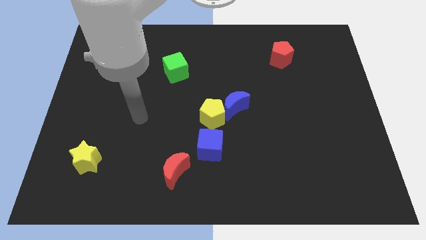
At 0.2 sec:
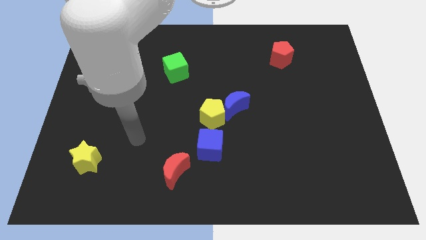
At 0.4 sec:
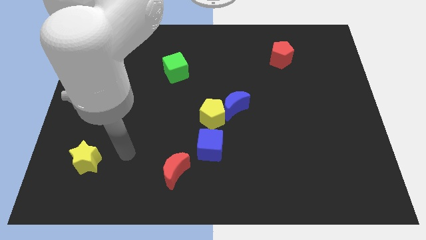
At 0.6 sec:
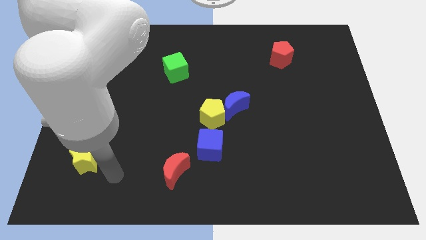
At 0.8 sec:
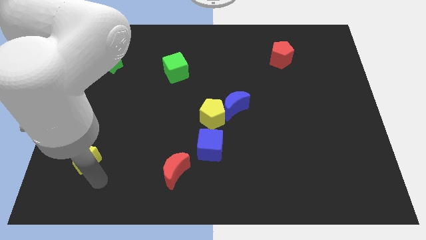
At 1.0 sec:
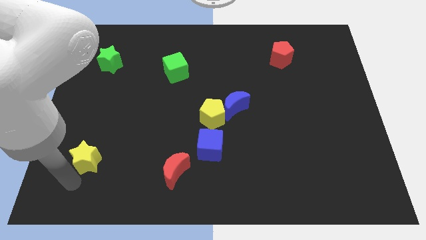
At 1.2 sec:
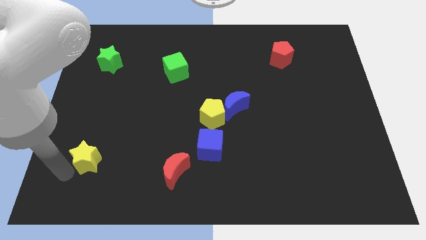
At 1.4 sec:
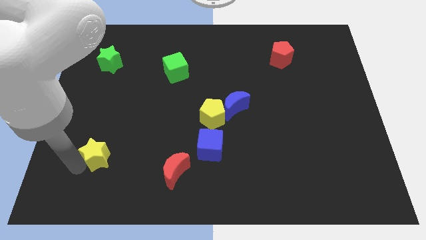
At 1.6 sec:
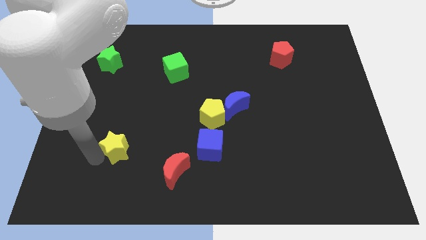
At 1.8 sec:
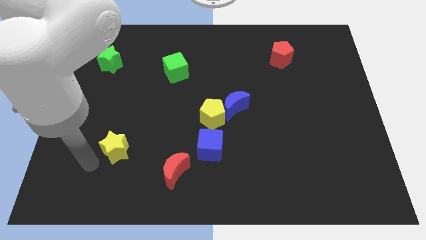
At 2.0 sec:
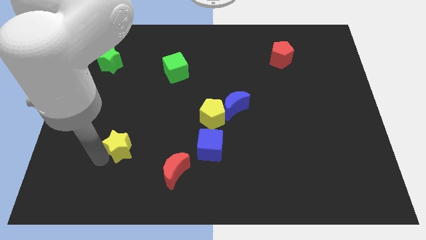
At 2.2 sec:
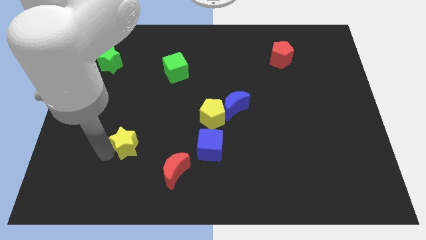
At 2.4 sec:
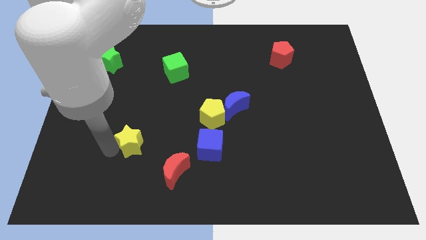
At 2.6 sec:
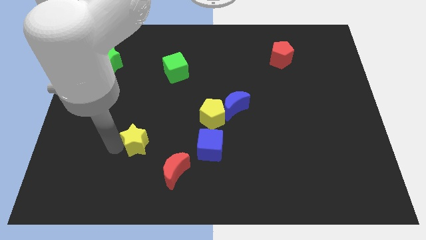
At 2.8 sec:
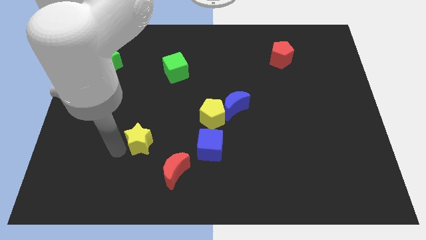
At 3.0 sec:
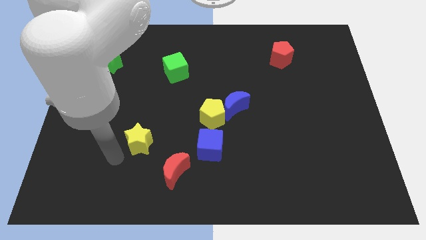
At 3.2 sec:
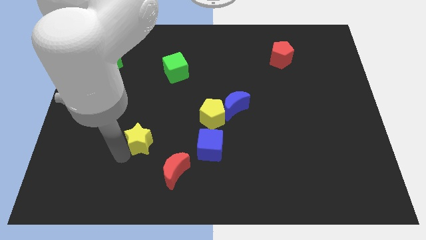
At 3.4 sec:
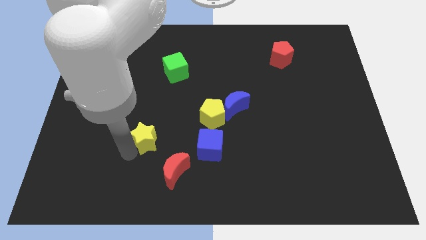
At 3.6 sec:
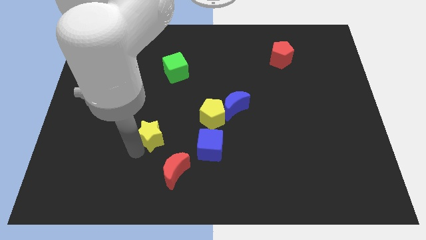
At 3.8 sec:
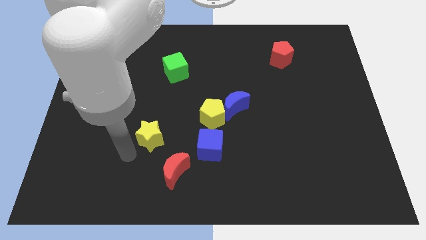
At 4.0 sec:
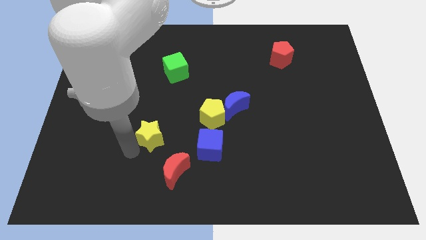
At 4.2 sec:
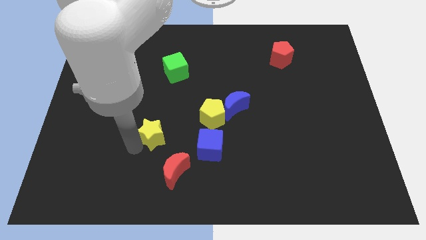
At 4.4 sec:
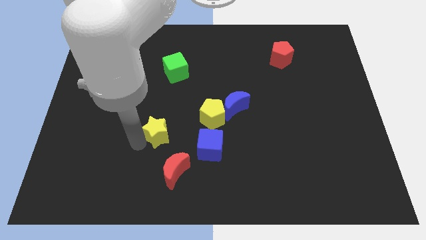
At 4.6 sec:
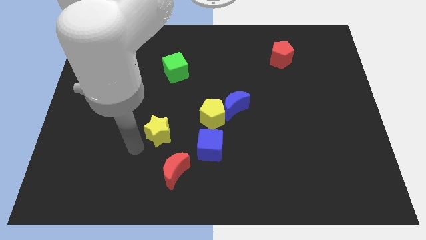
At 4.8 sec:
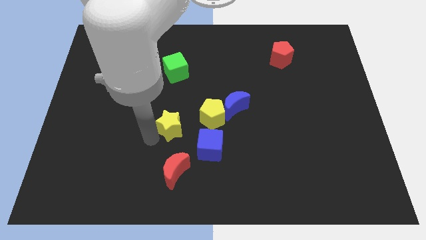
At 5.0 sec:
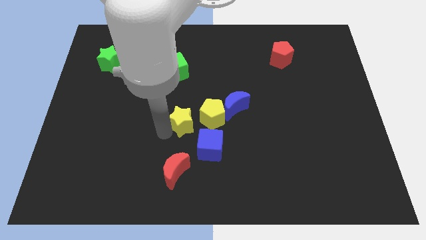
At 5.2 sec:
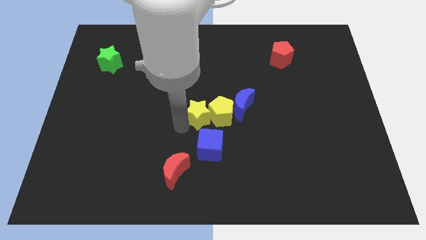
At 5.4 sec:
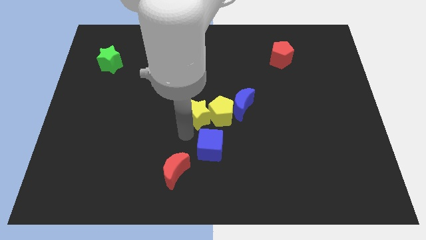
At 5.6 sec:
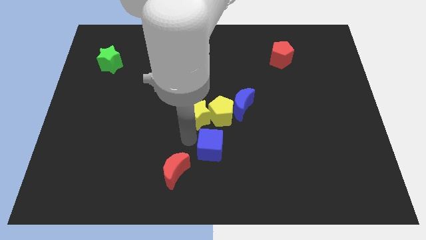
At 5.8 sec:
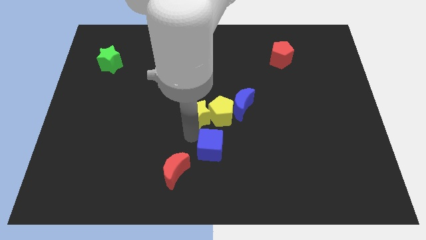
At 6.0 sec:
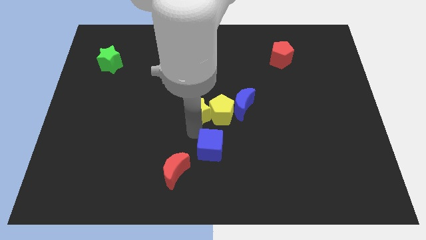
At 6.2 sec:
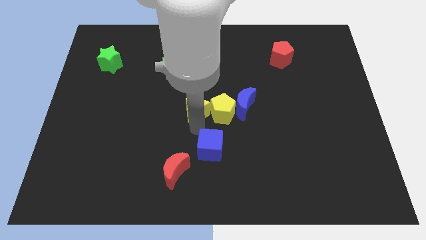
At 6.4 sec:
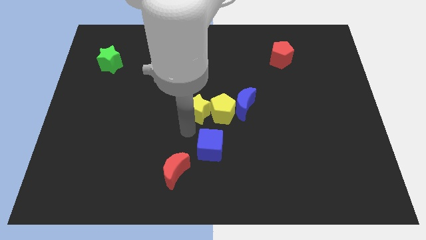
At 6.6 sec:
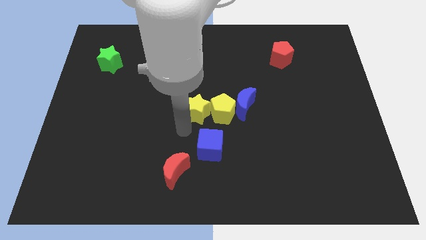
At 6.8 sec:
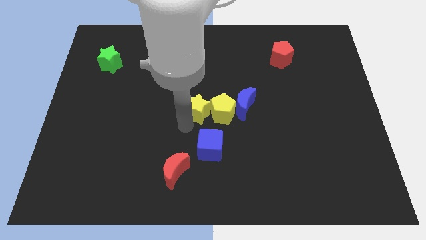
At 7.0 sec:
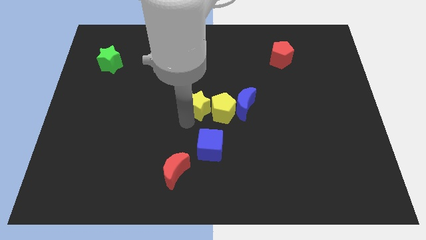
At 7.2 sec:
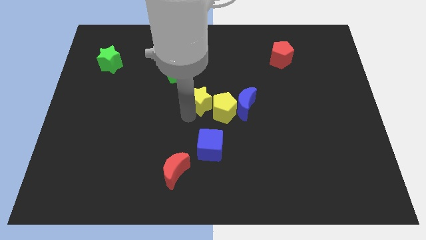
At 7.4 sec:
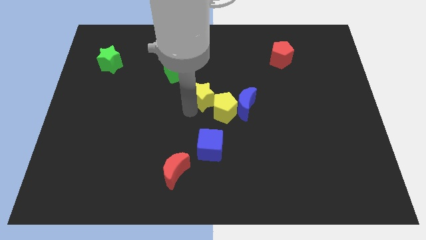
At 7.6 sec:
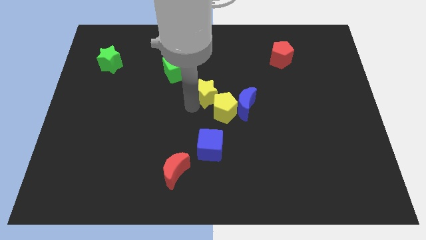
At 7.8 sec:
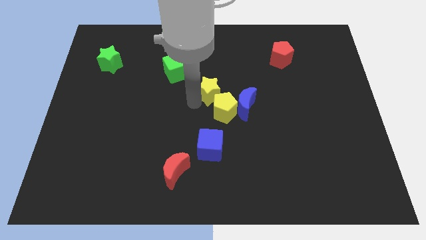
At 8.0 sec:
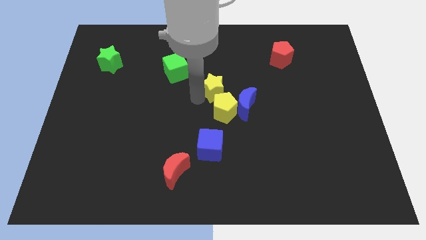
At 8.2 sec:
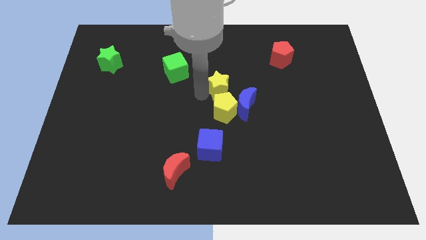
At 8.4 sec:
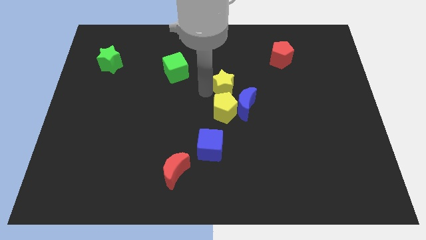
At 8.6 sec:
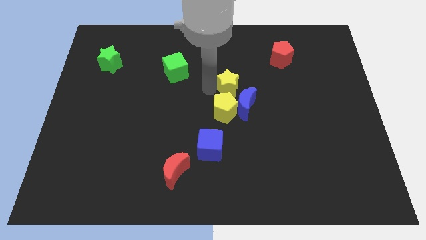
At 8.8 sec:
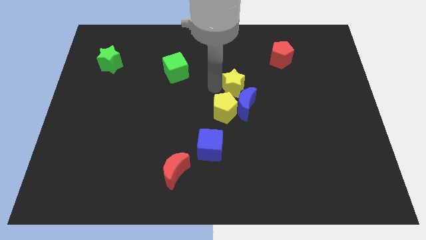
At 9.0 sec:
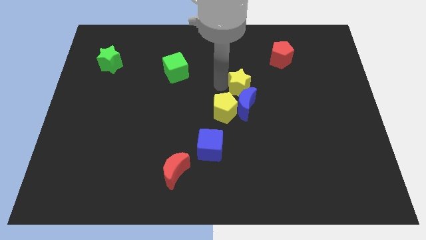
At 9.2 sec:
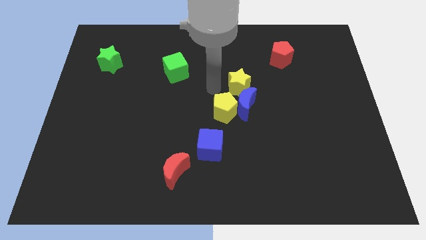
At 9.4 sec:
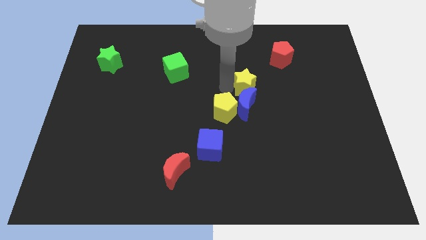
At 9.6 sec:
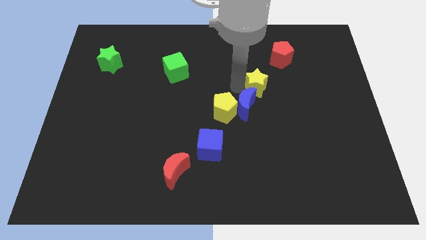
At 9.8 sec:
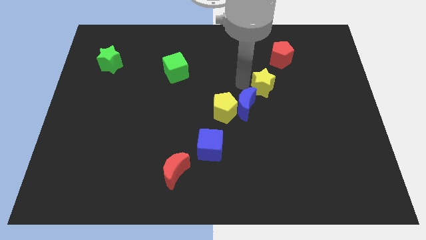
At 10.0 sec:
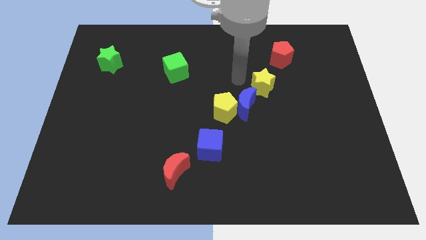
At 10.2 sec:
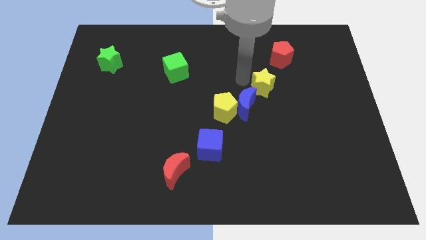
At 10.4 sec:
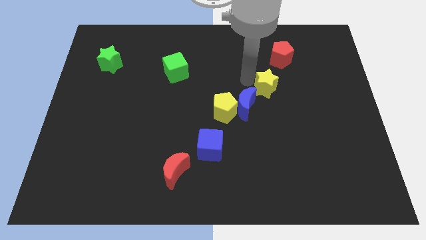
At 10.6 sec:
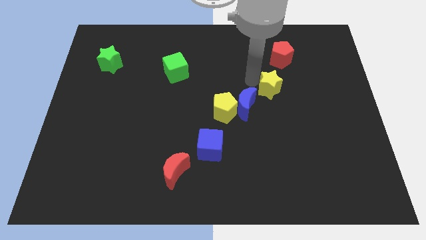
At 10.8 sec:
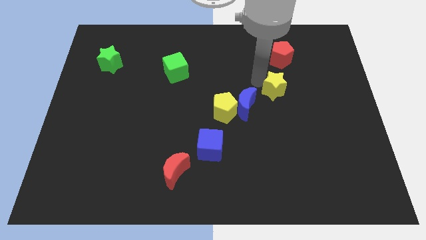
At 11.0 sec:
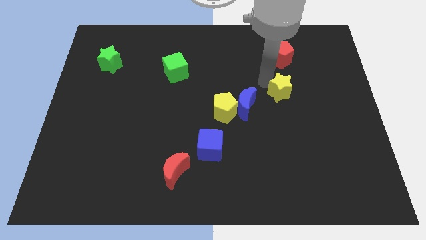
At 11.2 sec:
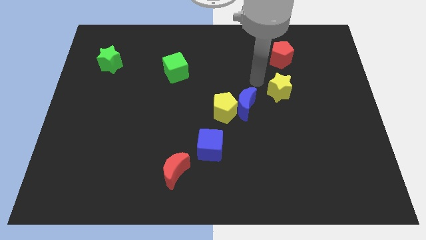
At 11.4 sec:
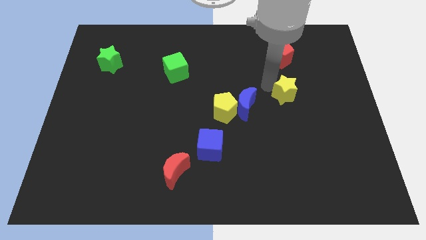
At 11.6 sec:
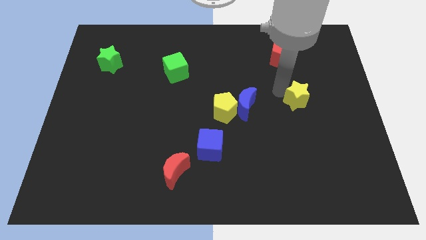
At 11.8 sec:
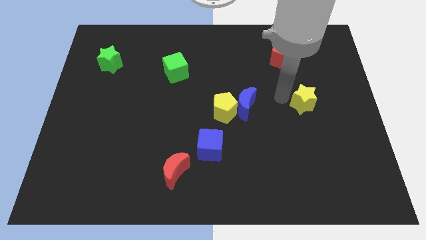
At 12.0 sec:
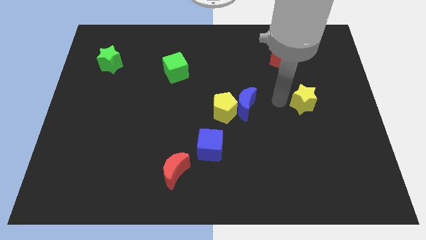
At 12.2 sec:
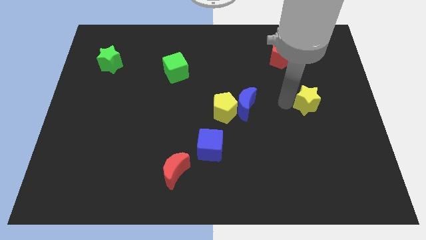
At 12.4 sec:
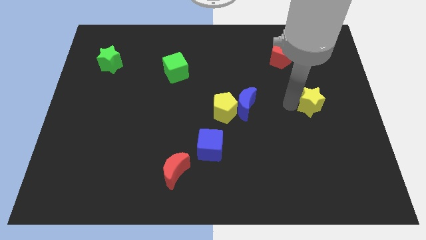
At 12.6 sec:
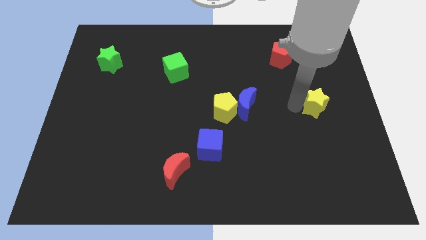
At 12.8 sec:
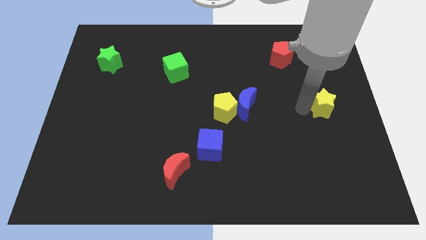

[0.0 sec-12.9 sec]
put the yellow star to the center right
